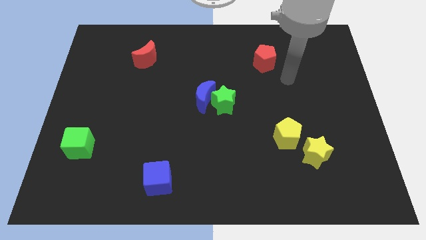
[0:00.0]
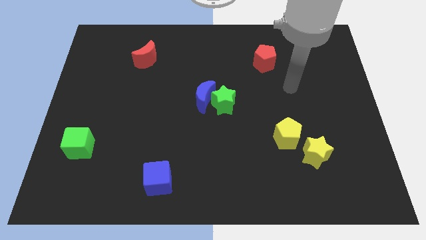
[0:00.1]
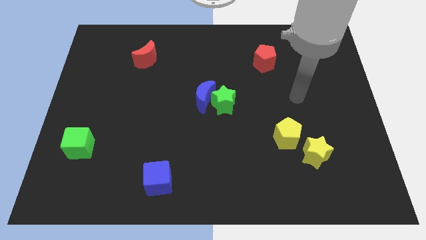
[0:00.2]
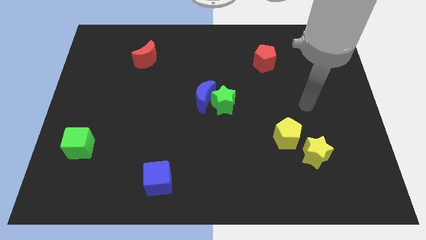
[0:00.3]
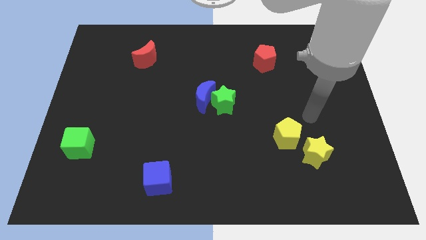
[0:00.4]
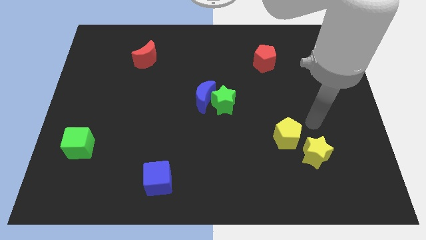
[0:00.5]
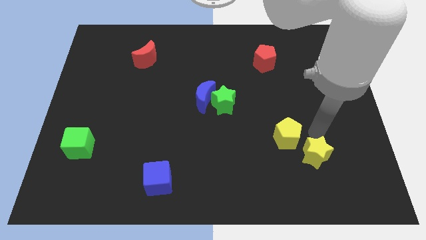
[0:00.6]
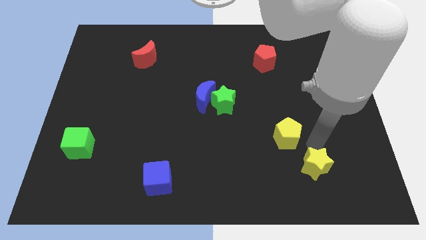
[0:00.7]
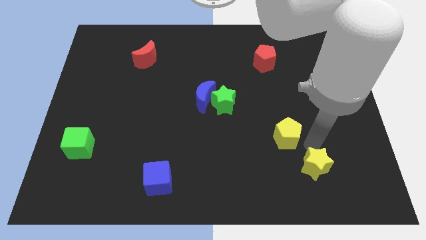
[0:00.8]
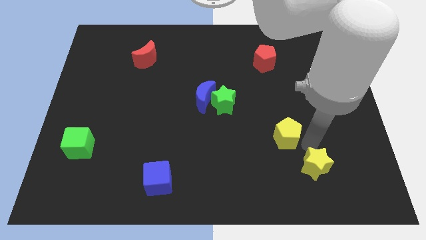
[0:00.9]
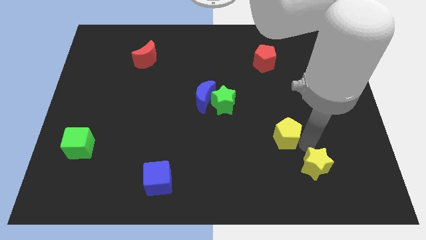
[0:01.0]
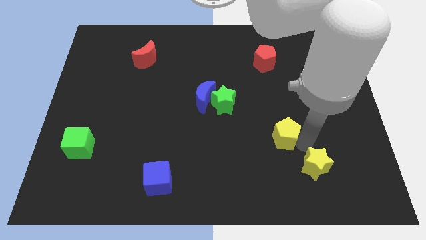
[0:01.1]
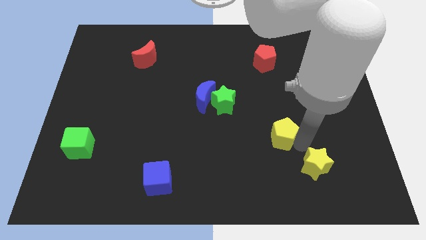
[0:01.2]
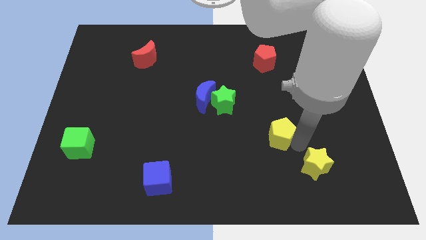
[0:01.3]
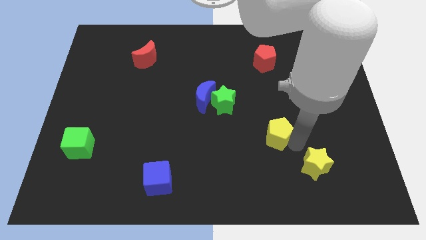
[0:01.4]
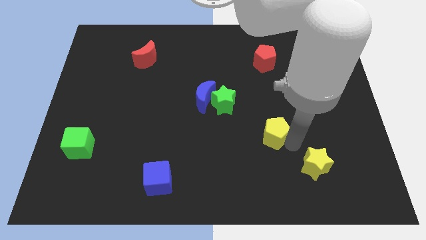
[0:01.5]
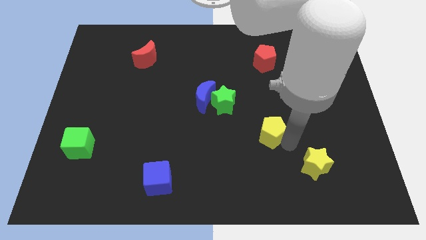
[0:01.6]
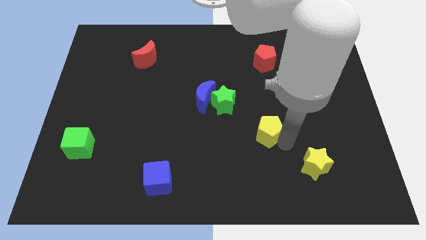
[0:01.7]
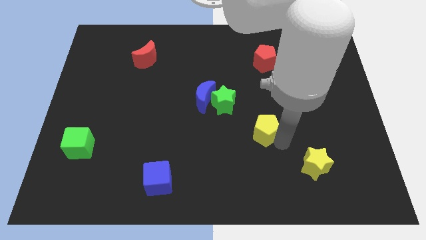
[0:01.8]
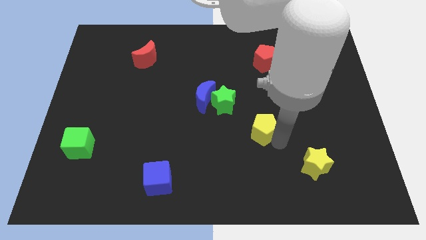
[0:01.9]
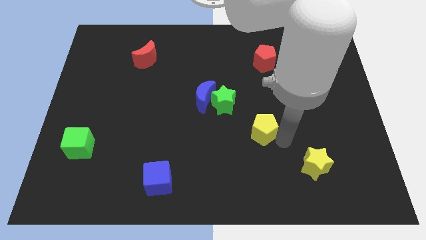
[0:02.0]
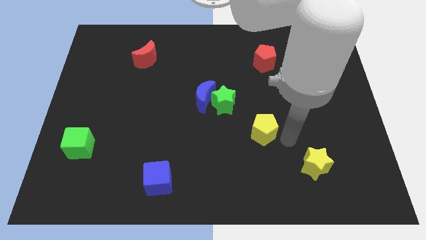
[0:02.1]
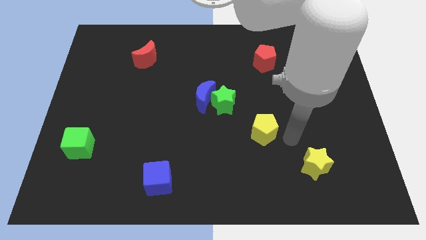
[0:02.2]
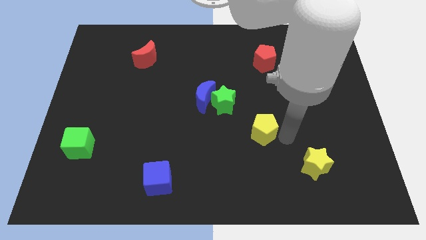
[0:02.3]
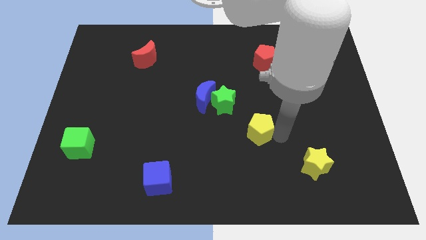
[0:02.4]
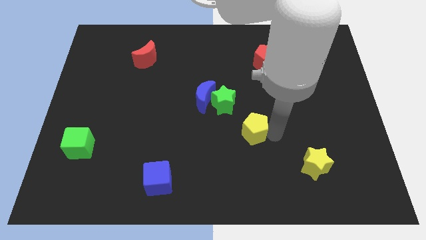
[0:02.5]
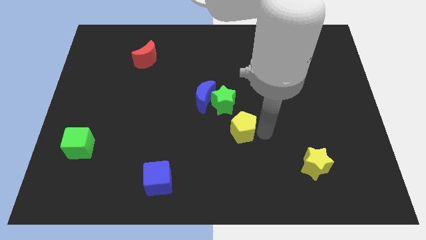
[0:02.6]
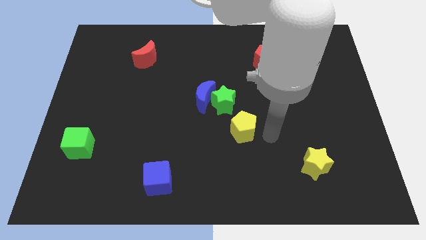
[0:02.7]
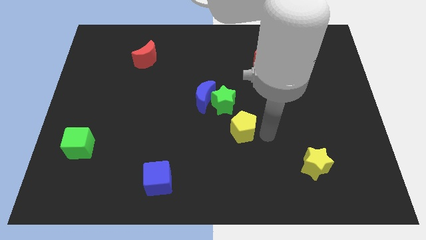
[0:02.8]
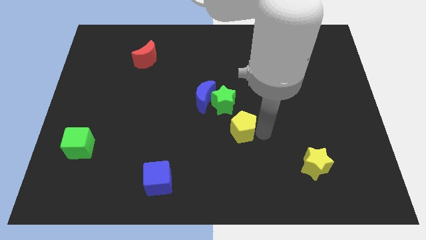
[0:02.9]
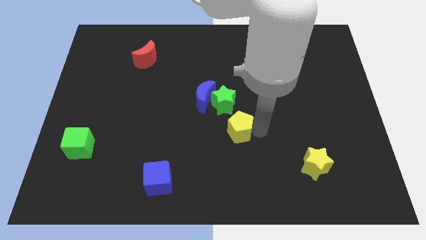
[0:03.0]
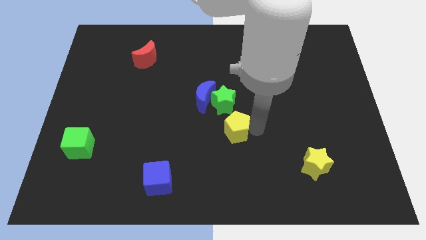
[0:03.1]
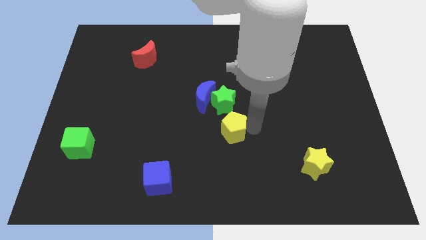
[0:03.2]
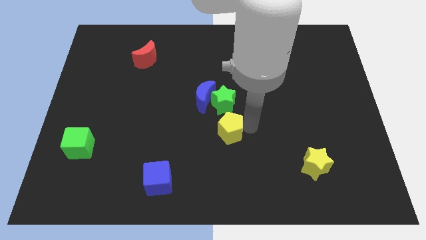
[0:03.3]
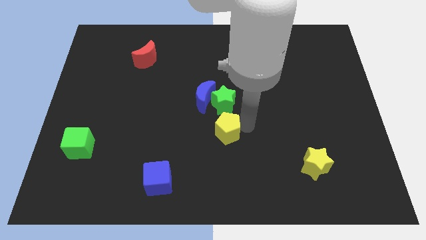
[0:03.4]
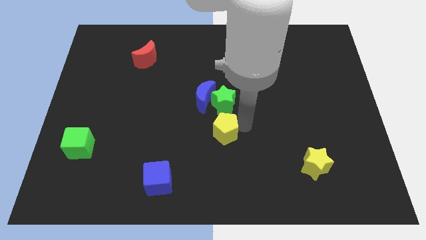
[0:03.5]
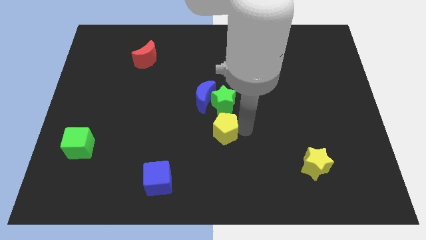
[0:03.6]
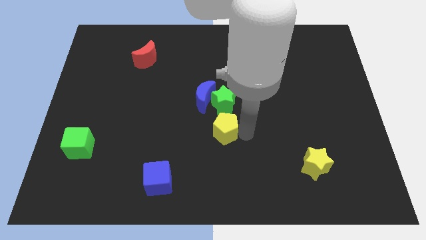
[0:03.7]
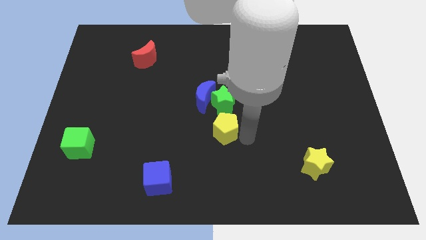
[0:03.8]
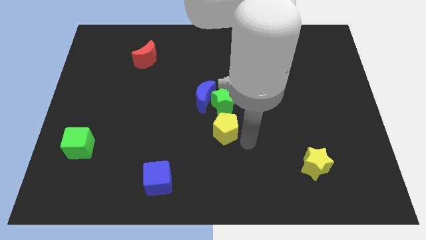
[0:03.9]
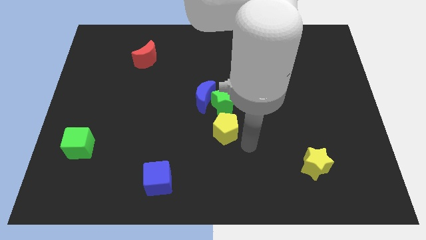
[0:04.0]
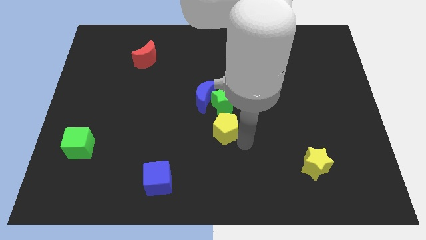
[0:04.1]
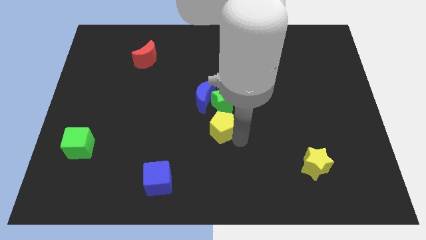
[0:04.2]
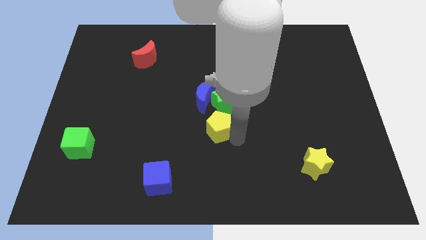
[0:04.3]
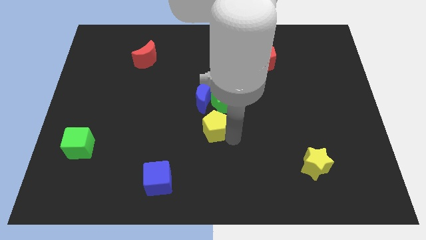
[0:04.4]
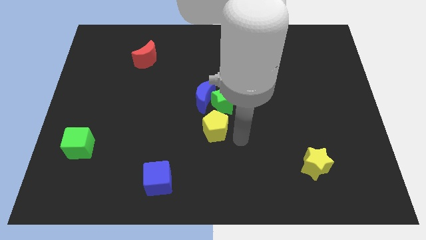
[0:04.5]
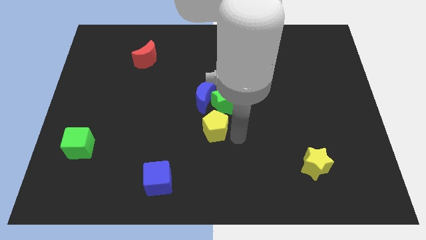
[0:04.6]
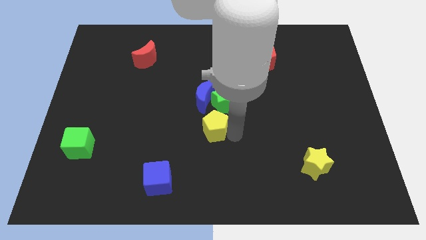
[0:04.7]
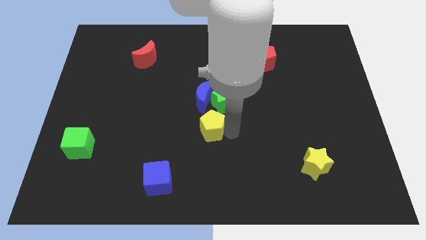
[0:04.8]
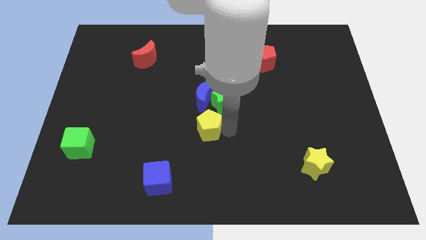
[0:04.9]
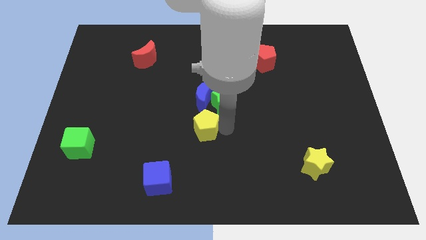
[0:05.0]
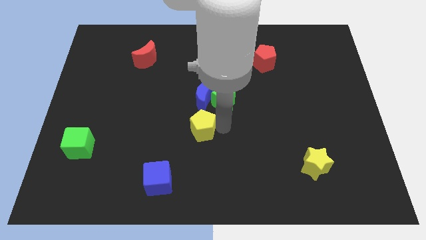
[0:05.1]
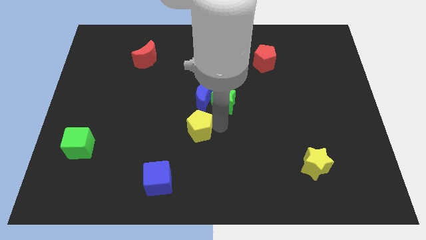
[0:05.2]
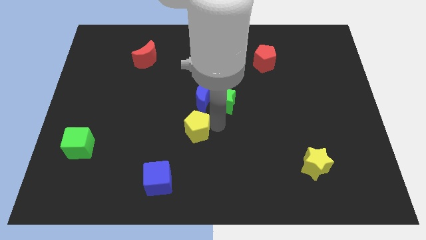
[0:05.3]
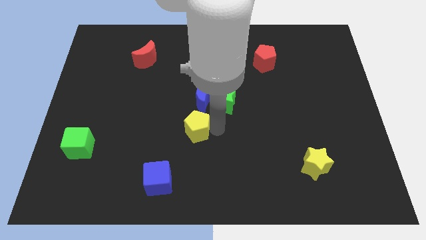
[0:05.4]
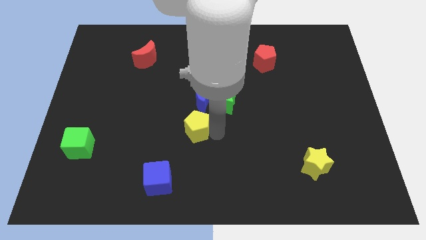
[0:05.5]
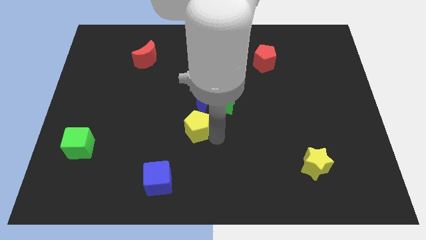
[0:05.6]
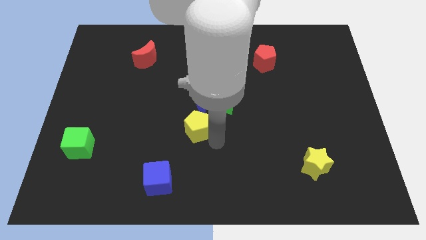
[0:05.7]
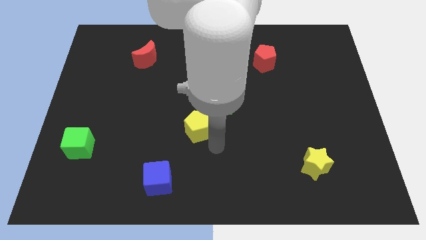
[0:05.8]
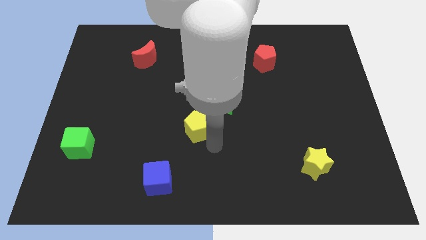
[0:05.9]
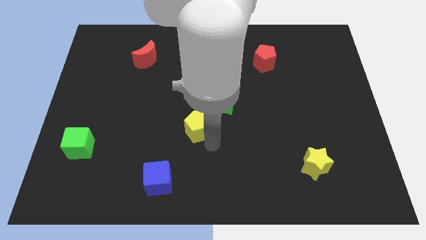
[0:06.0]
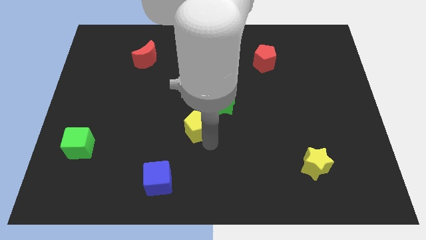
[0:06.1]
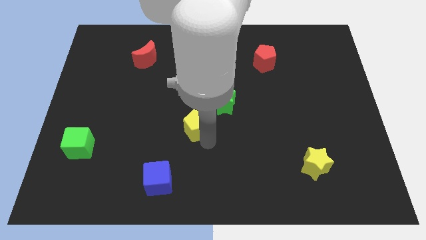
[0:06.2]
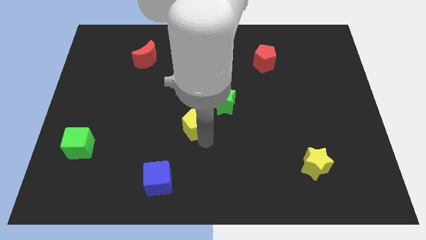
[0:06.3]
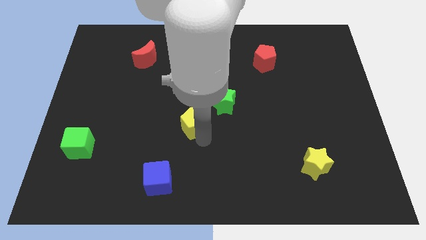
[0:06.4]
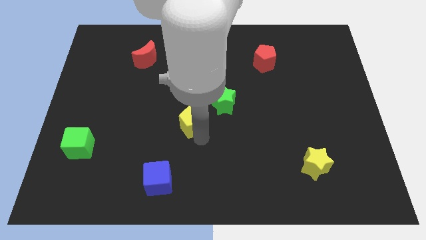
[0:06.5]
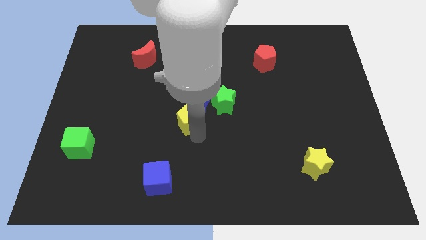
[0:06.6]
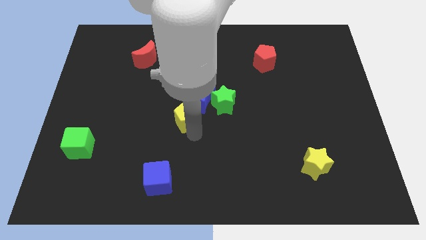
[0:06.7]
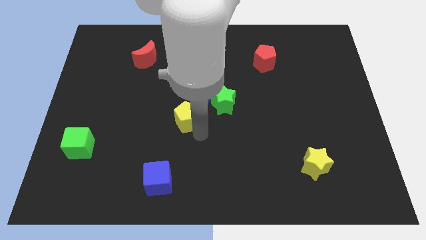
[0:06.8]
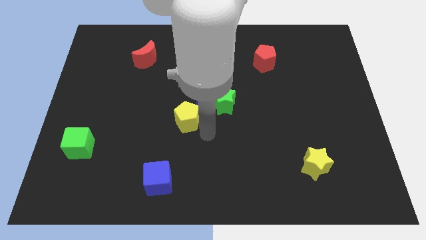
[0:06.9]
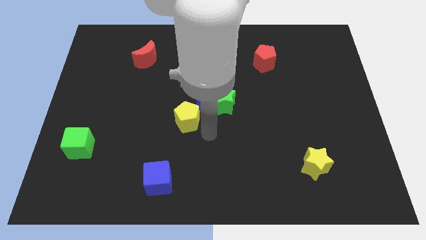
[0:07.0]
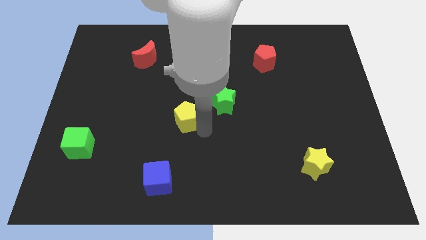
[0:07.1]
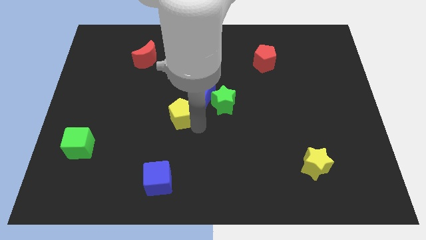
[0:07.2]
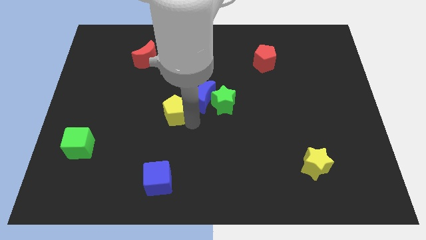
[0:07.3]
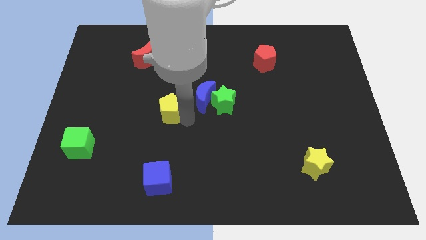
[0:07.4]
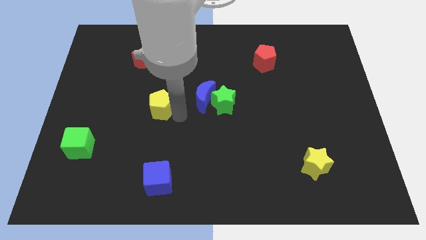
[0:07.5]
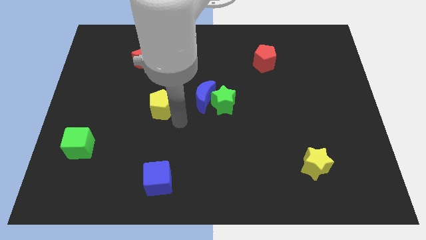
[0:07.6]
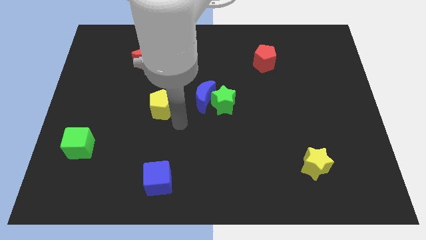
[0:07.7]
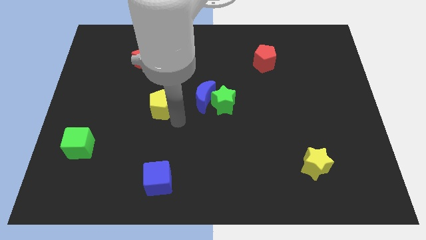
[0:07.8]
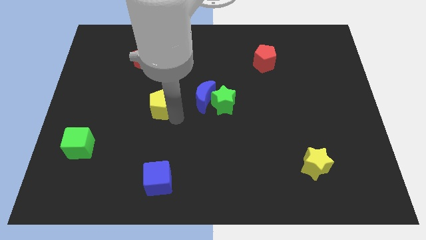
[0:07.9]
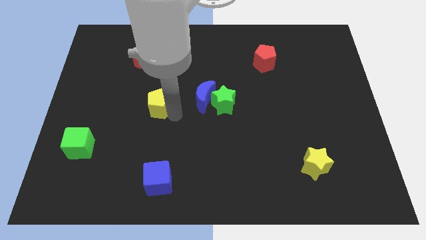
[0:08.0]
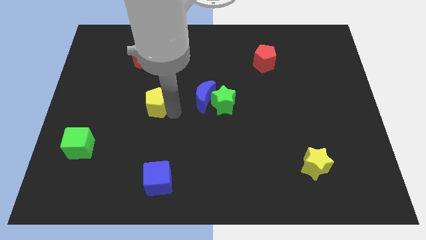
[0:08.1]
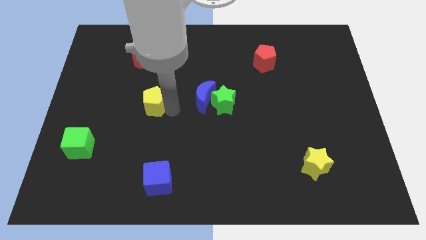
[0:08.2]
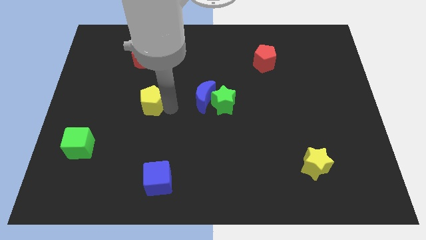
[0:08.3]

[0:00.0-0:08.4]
move the yellow pentagon below the red moon
